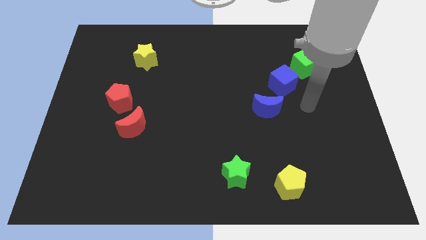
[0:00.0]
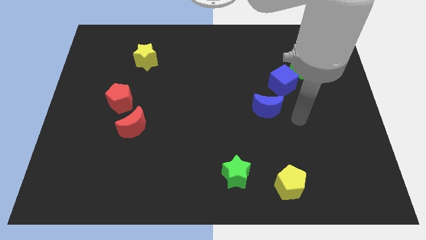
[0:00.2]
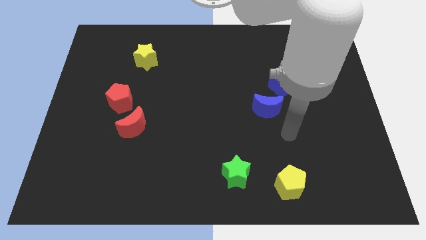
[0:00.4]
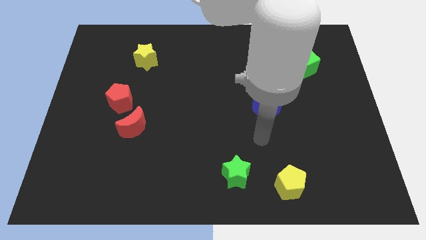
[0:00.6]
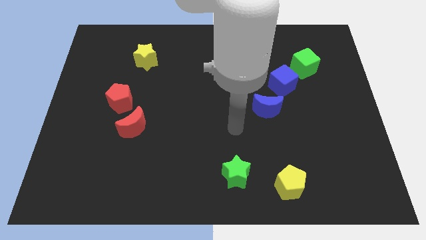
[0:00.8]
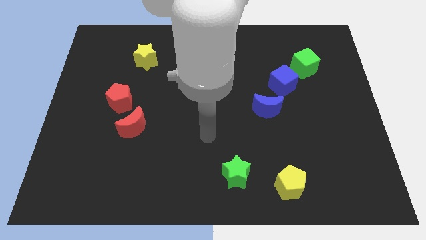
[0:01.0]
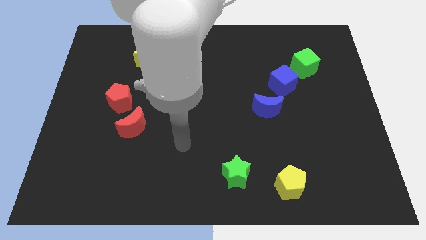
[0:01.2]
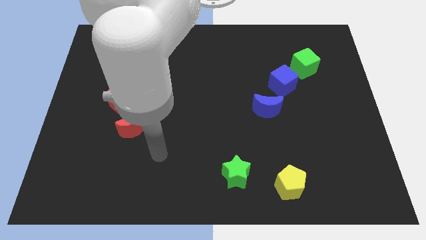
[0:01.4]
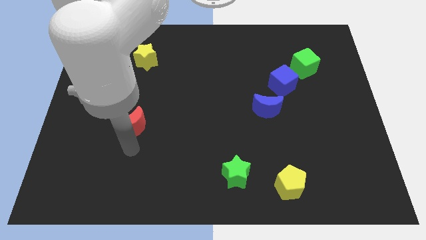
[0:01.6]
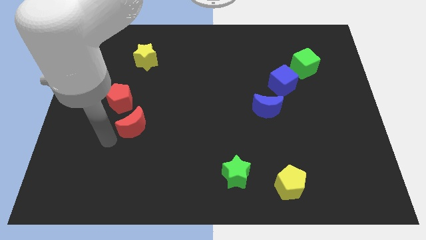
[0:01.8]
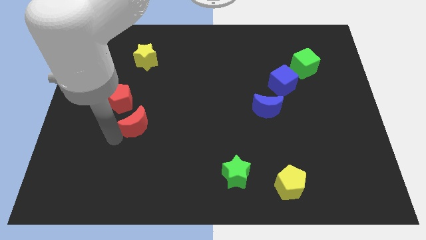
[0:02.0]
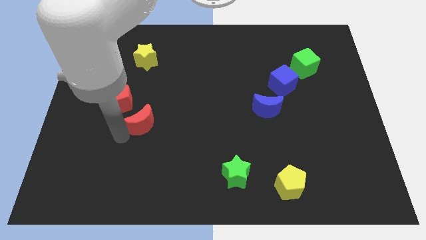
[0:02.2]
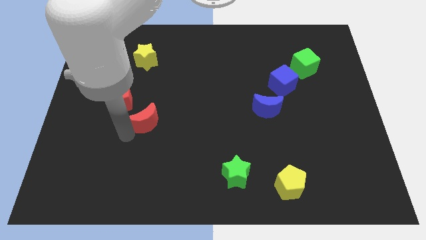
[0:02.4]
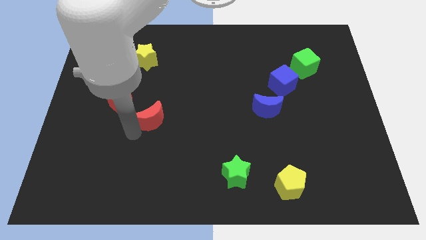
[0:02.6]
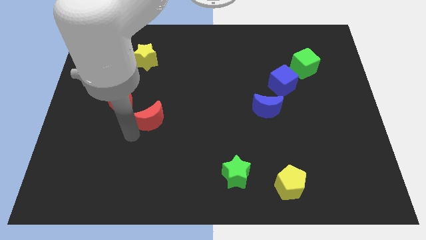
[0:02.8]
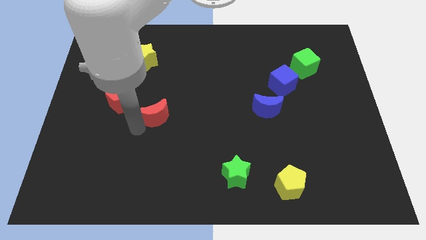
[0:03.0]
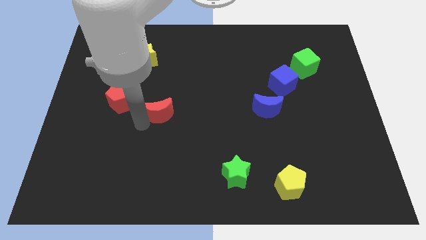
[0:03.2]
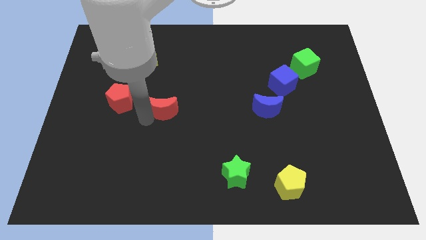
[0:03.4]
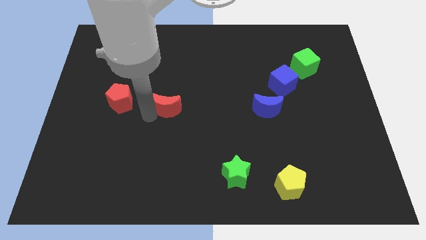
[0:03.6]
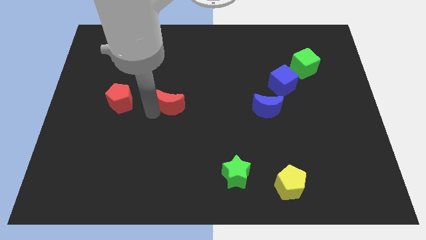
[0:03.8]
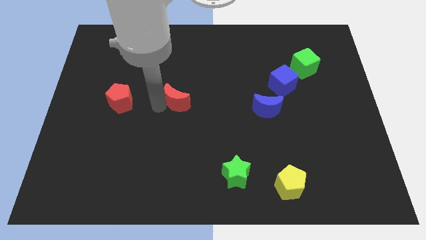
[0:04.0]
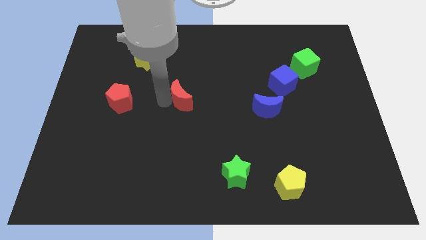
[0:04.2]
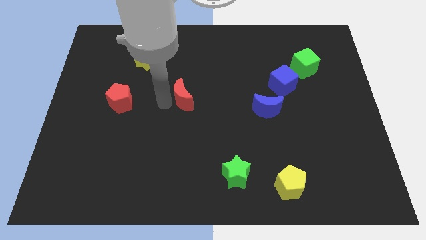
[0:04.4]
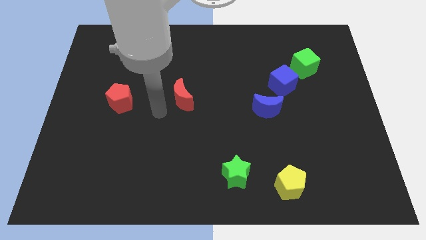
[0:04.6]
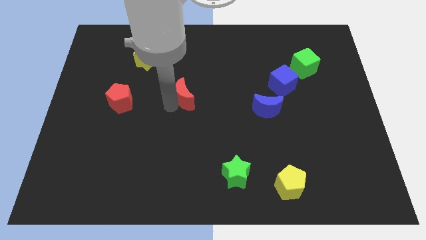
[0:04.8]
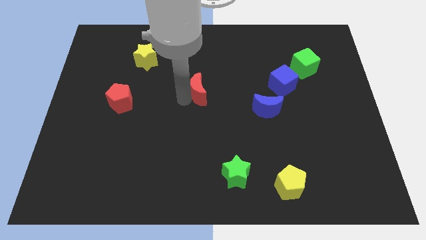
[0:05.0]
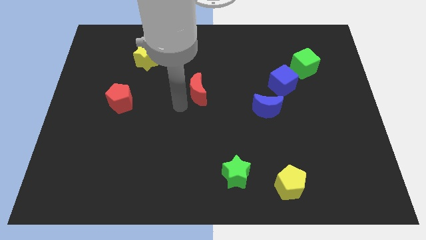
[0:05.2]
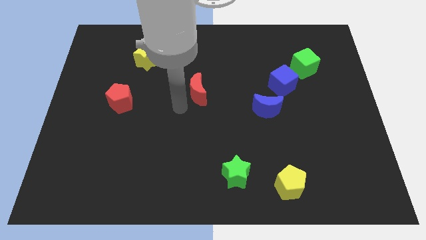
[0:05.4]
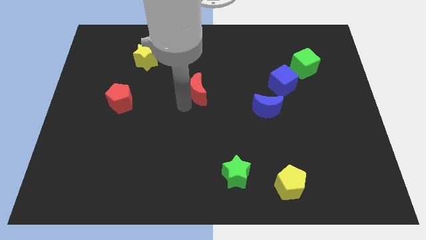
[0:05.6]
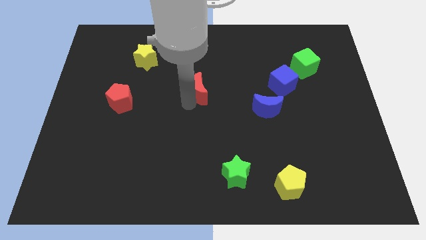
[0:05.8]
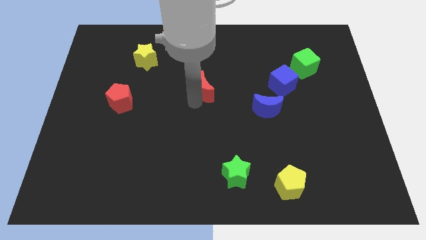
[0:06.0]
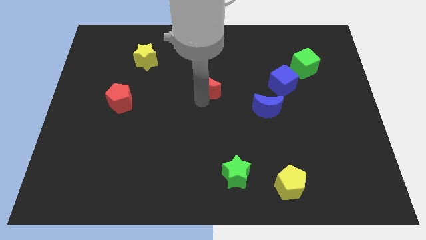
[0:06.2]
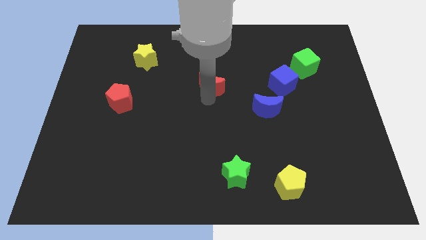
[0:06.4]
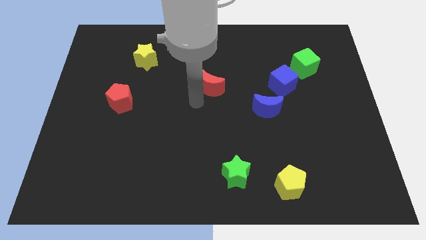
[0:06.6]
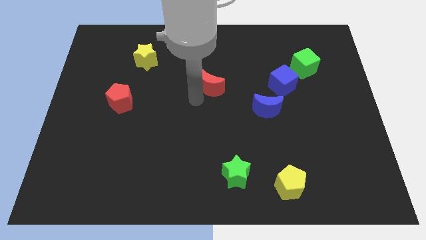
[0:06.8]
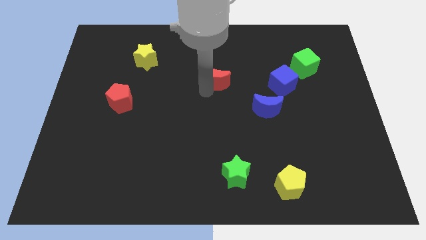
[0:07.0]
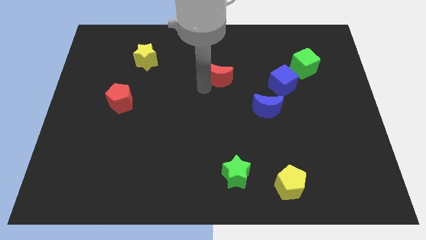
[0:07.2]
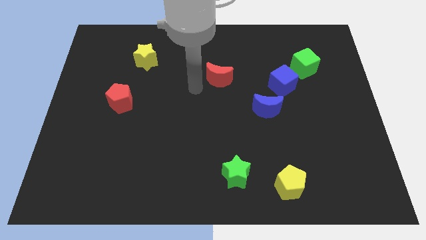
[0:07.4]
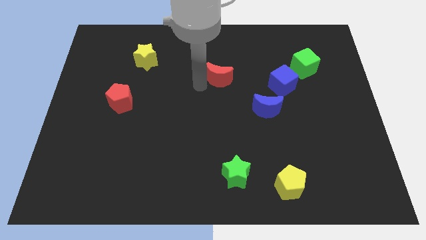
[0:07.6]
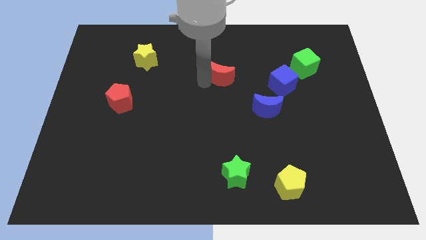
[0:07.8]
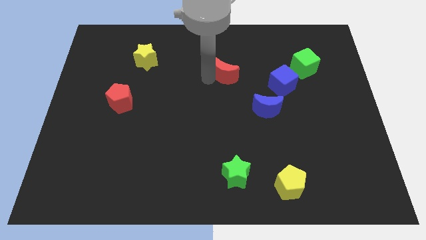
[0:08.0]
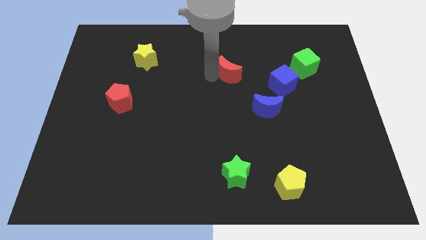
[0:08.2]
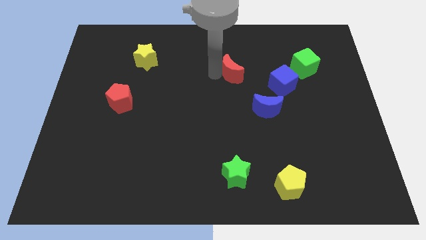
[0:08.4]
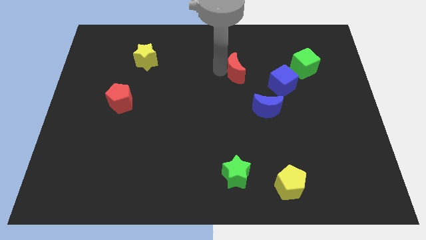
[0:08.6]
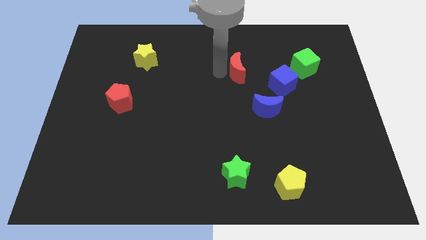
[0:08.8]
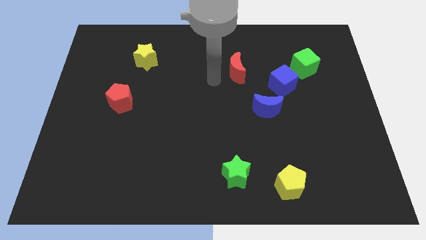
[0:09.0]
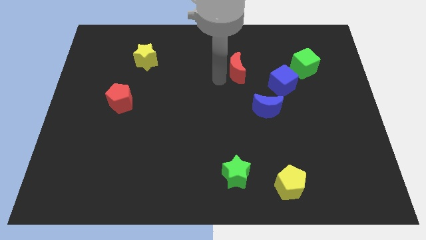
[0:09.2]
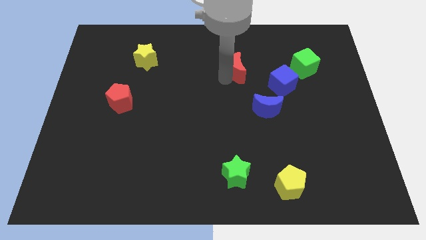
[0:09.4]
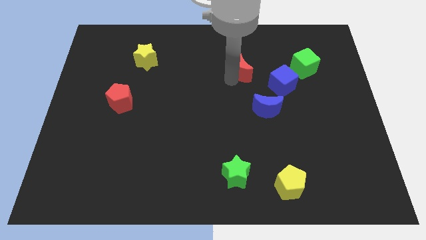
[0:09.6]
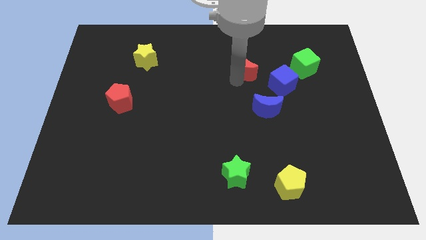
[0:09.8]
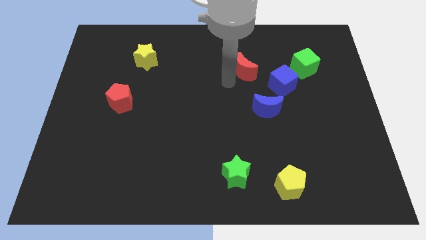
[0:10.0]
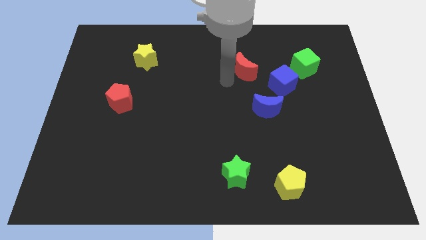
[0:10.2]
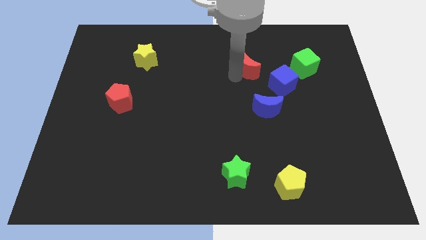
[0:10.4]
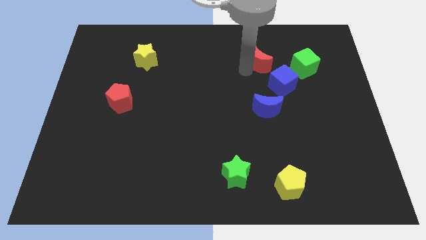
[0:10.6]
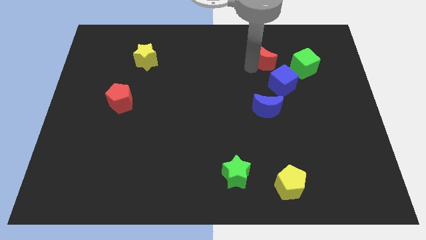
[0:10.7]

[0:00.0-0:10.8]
slide the red moon to the top of the blue cube

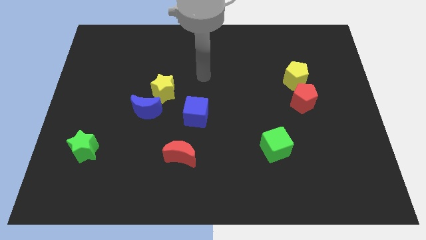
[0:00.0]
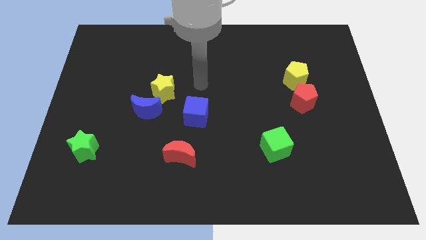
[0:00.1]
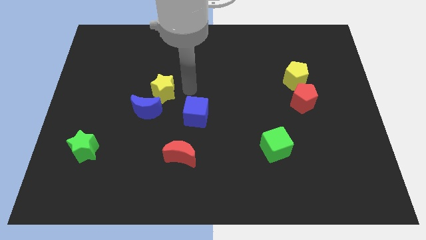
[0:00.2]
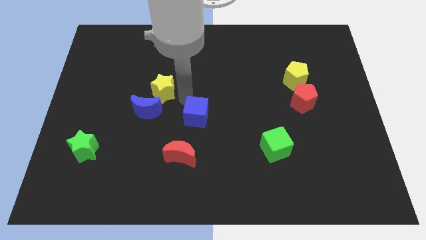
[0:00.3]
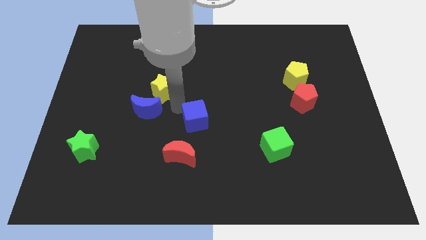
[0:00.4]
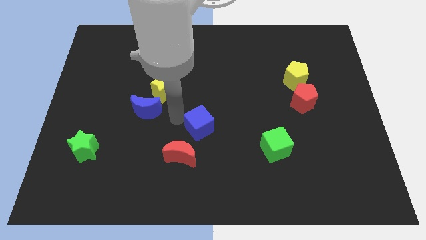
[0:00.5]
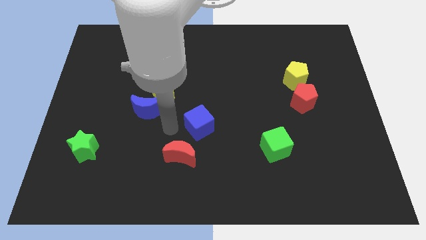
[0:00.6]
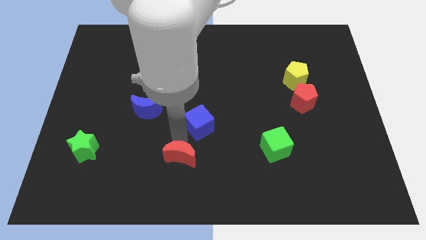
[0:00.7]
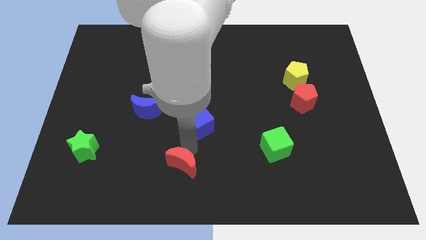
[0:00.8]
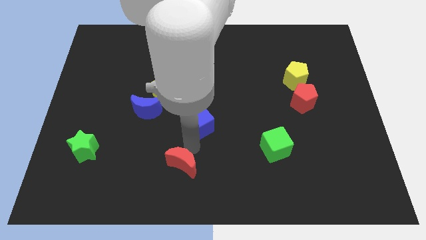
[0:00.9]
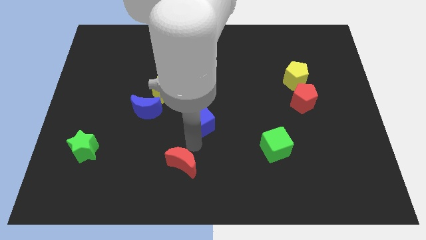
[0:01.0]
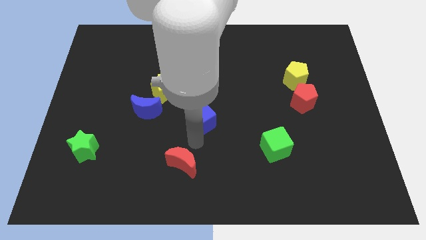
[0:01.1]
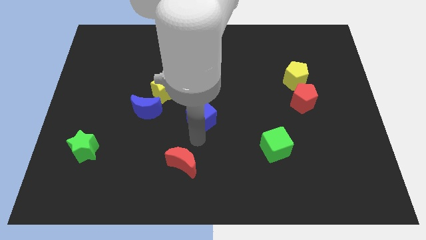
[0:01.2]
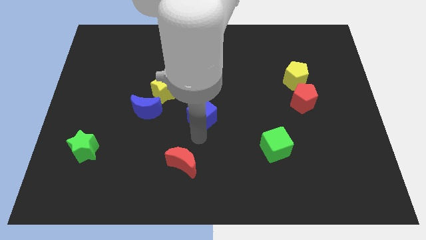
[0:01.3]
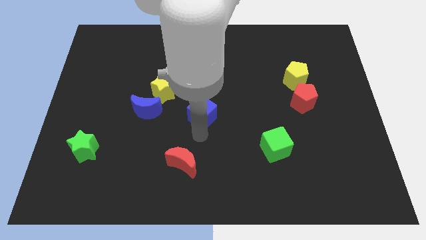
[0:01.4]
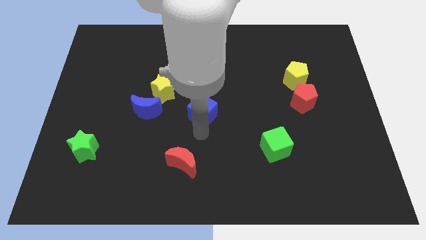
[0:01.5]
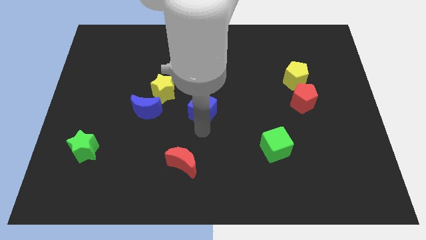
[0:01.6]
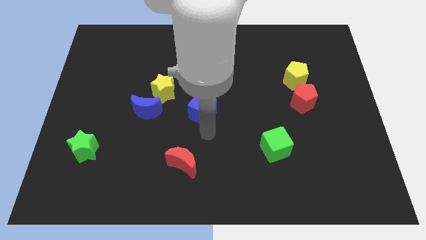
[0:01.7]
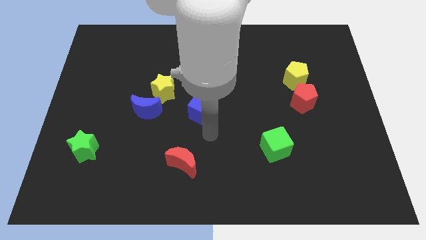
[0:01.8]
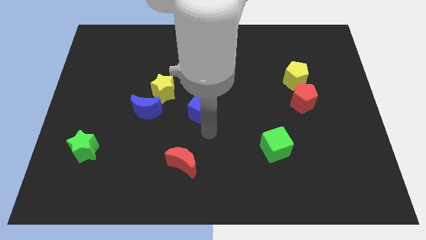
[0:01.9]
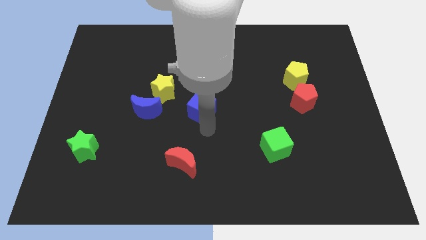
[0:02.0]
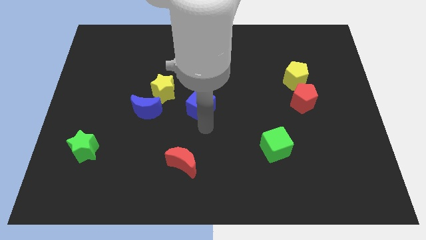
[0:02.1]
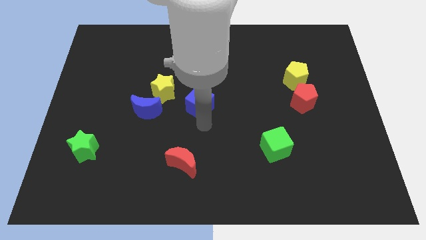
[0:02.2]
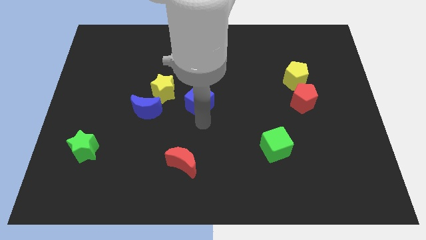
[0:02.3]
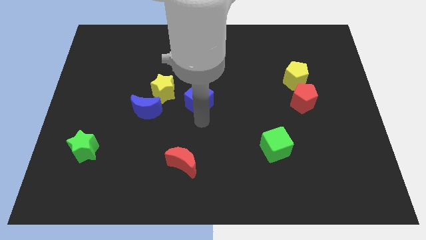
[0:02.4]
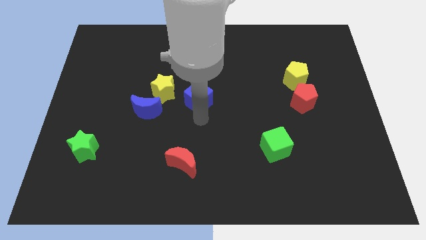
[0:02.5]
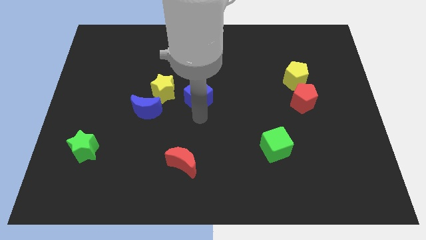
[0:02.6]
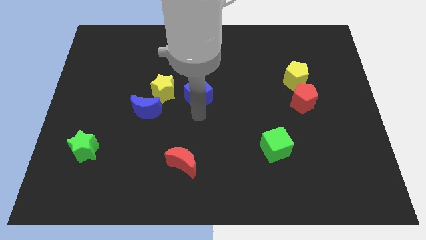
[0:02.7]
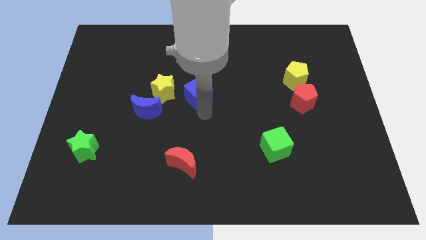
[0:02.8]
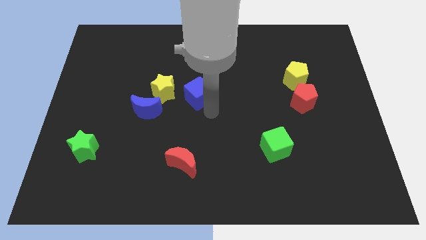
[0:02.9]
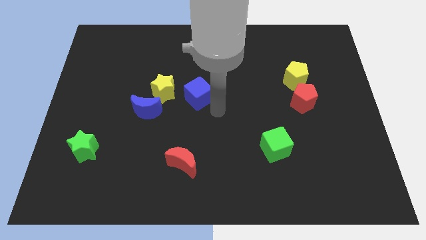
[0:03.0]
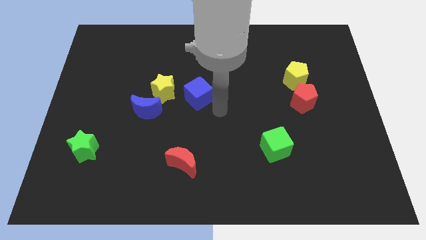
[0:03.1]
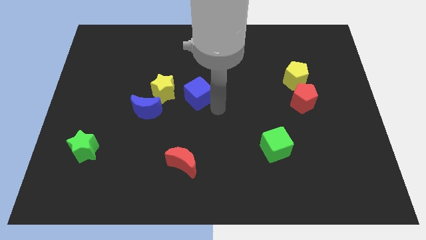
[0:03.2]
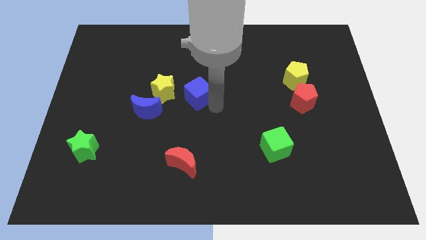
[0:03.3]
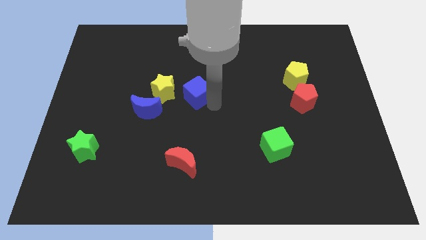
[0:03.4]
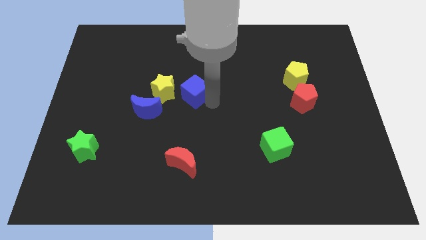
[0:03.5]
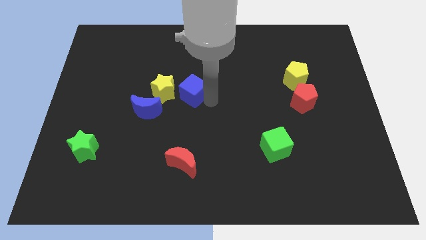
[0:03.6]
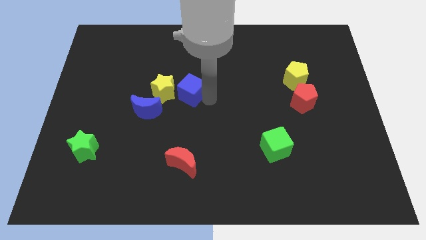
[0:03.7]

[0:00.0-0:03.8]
move the blue cube to the top right side of the blue moon
